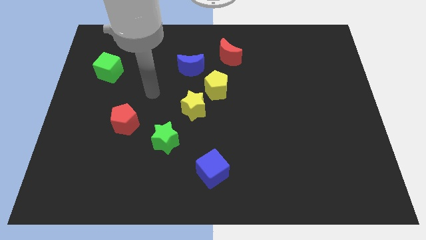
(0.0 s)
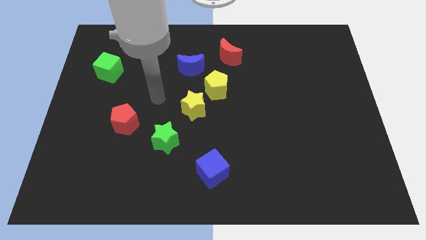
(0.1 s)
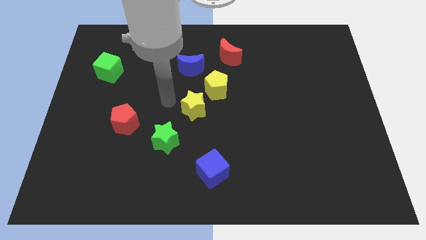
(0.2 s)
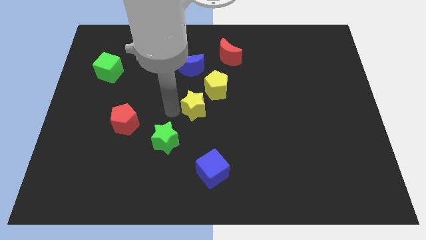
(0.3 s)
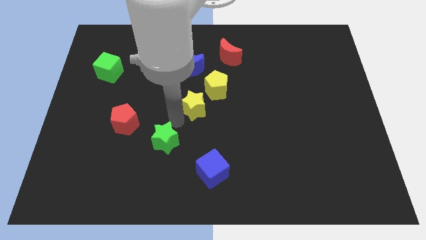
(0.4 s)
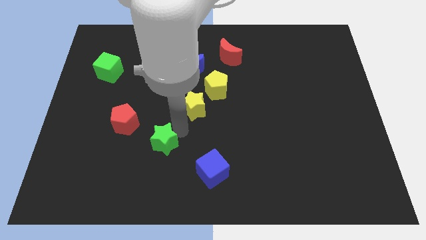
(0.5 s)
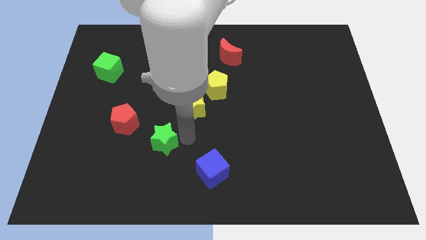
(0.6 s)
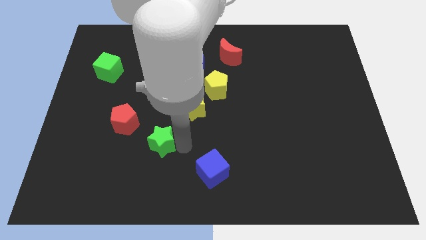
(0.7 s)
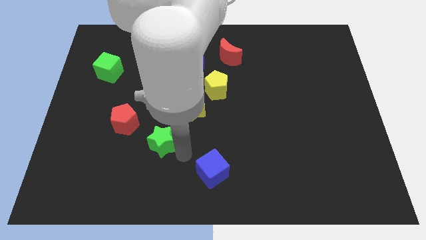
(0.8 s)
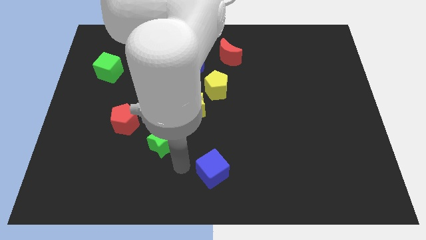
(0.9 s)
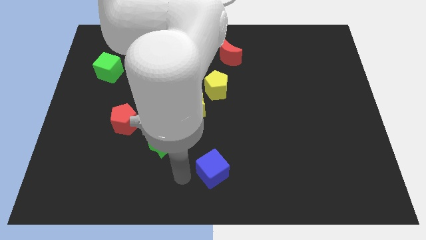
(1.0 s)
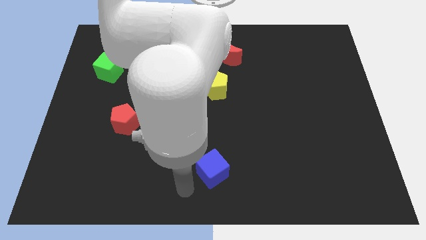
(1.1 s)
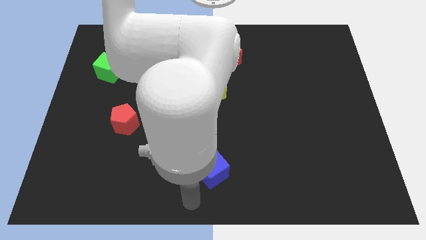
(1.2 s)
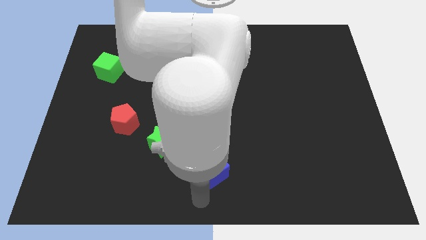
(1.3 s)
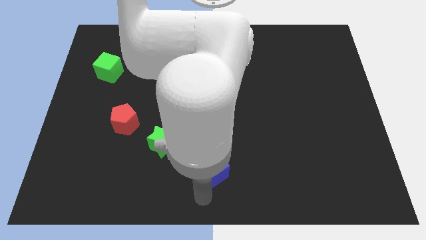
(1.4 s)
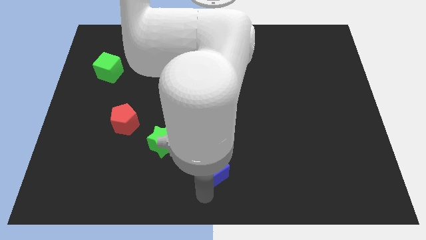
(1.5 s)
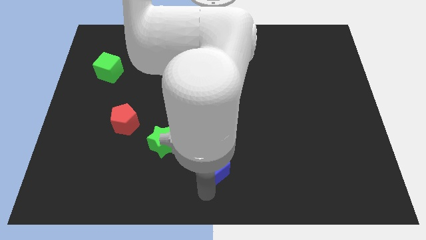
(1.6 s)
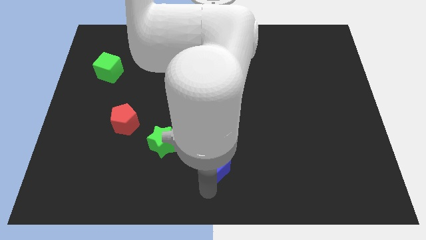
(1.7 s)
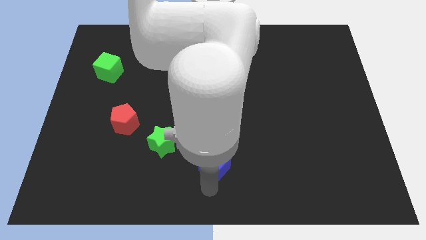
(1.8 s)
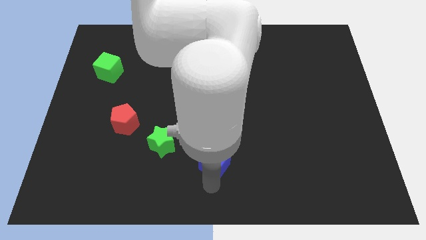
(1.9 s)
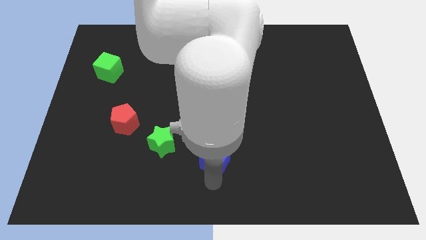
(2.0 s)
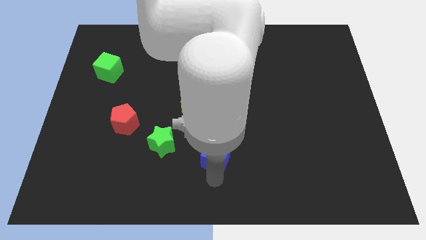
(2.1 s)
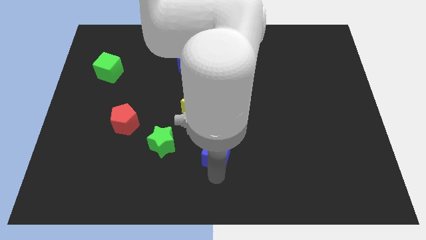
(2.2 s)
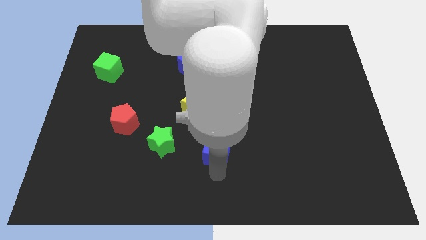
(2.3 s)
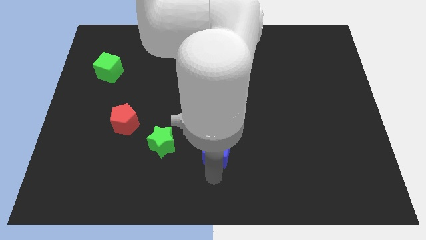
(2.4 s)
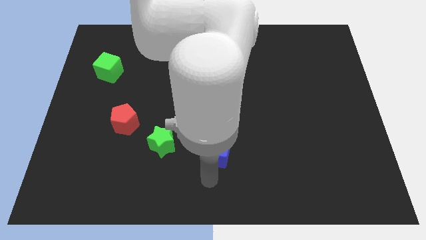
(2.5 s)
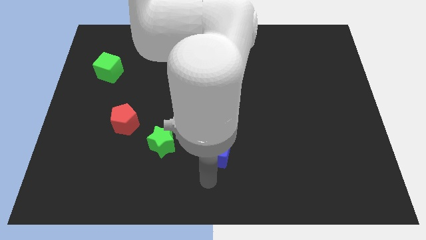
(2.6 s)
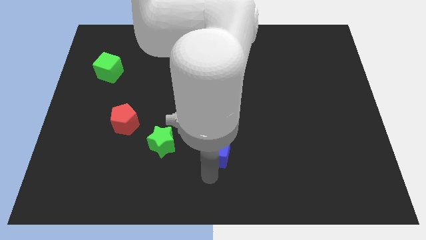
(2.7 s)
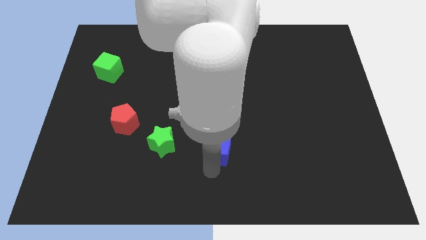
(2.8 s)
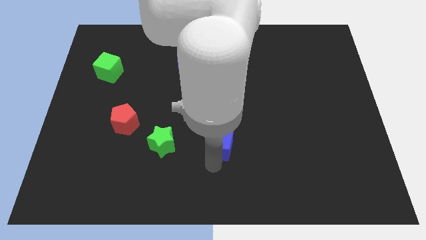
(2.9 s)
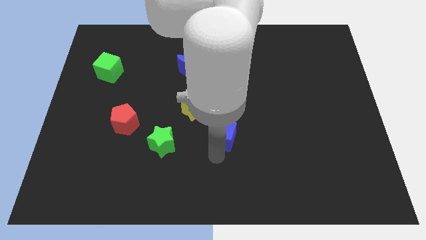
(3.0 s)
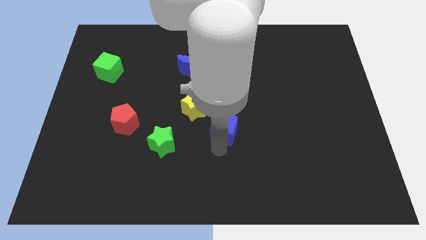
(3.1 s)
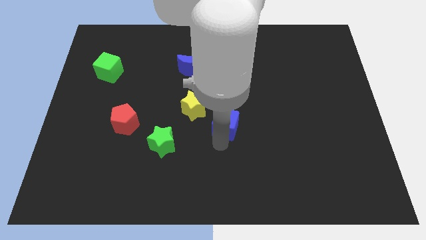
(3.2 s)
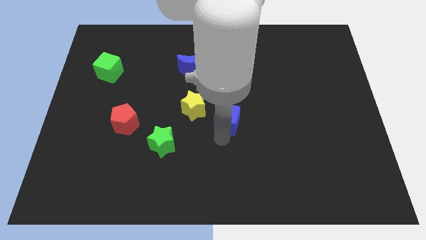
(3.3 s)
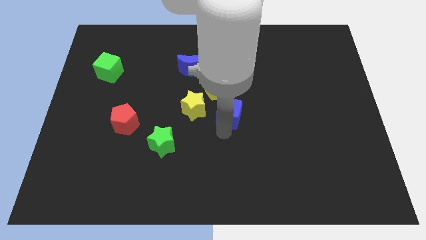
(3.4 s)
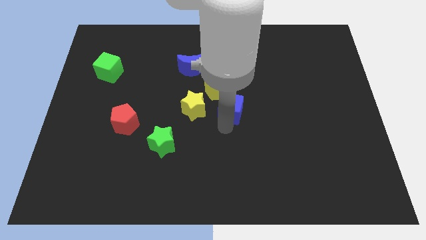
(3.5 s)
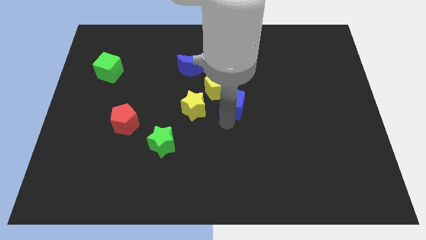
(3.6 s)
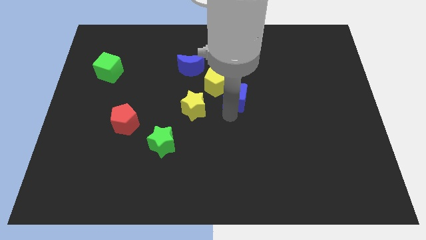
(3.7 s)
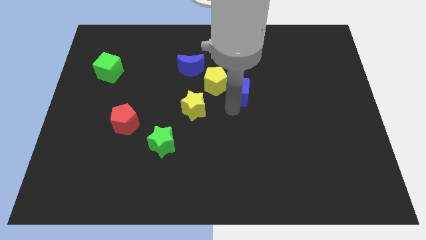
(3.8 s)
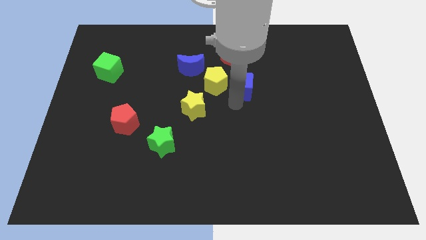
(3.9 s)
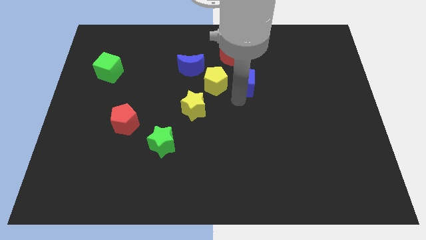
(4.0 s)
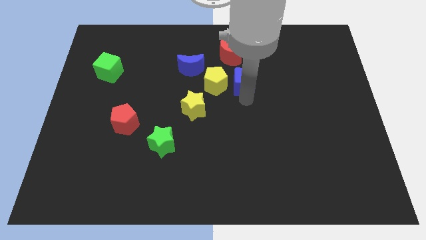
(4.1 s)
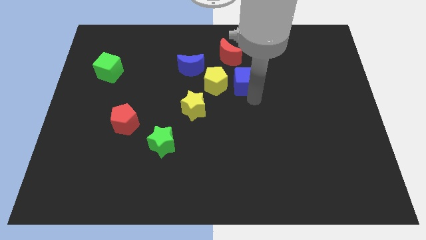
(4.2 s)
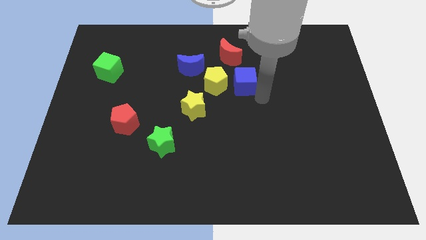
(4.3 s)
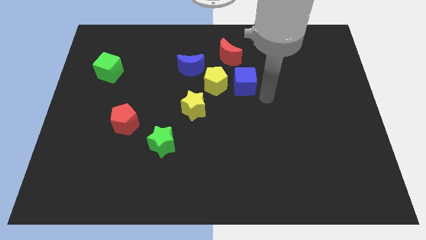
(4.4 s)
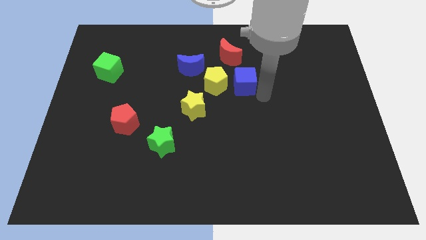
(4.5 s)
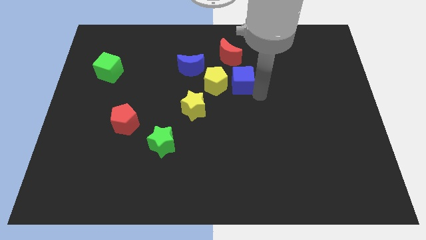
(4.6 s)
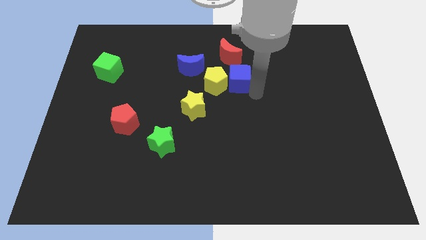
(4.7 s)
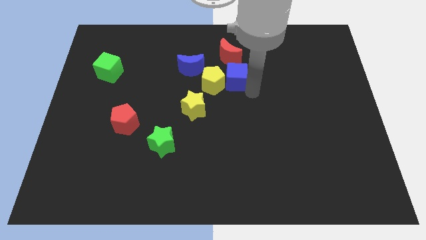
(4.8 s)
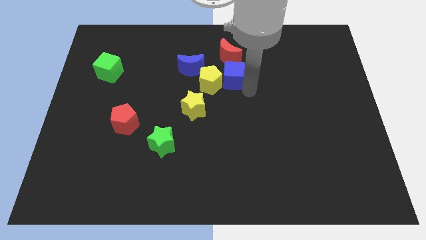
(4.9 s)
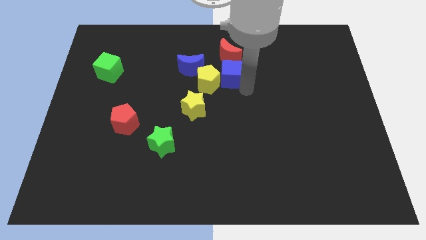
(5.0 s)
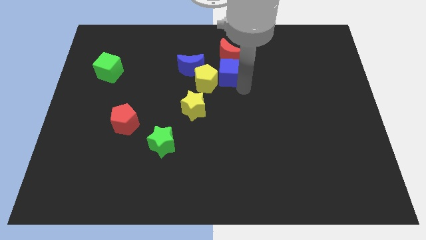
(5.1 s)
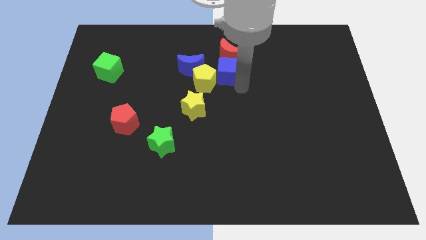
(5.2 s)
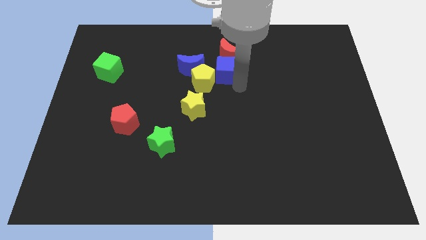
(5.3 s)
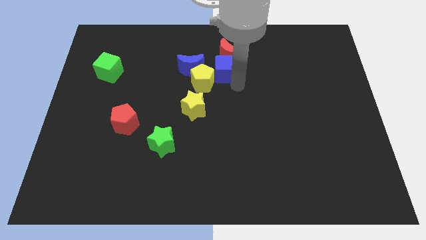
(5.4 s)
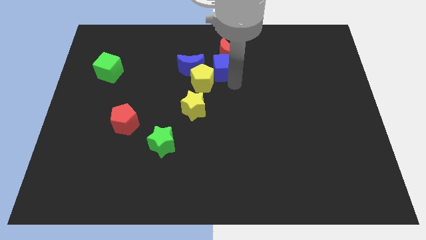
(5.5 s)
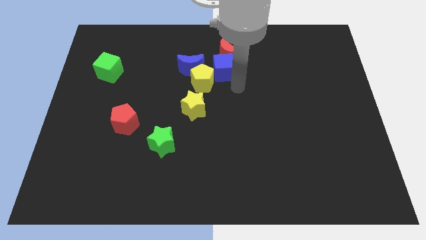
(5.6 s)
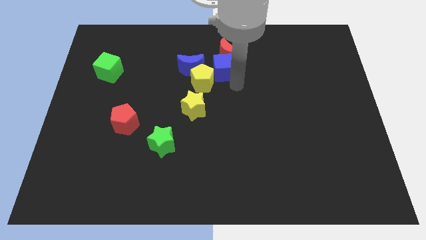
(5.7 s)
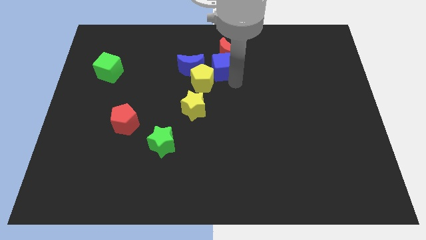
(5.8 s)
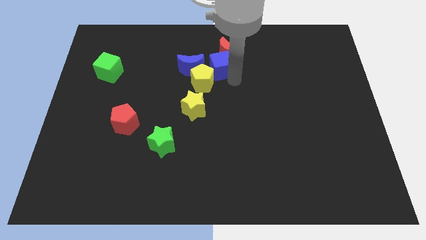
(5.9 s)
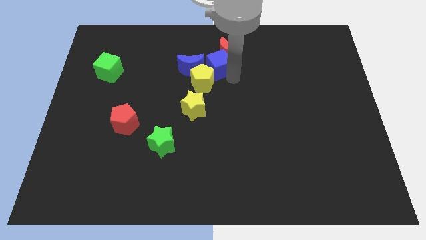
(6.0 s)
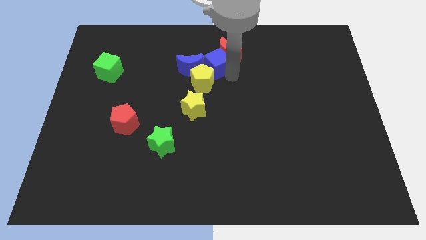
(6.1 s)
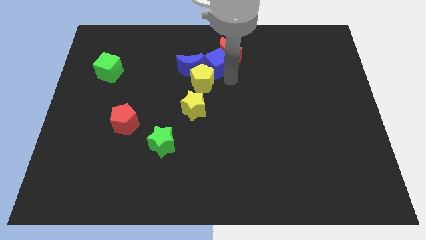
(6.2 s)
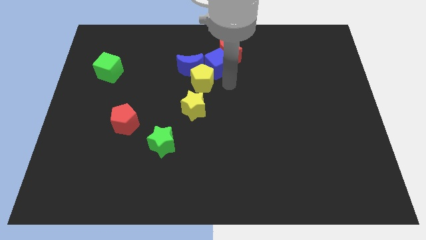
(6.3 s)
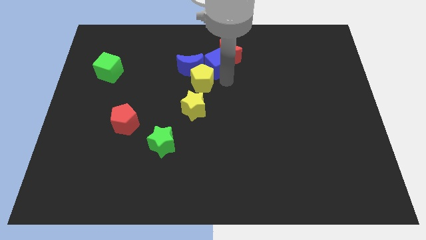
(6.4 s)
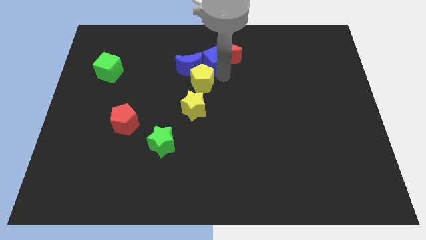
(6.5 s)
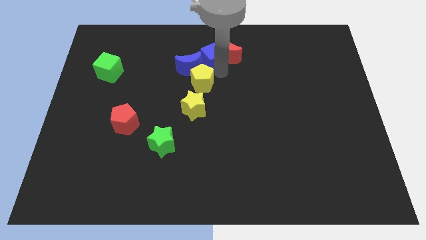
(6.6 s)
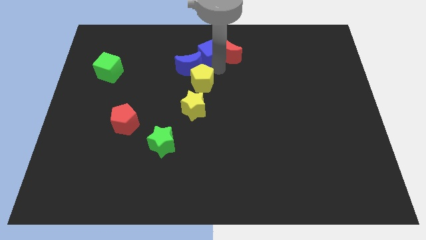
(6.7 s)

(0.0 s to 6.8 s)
put the blue cube to the top side
